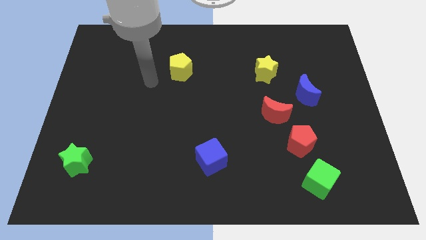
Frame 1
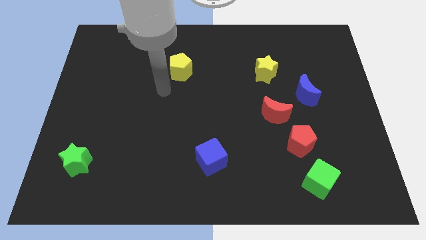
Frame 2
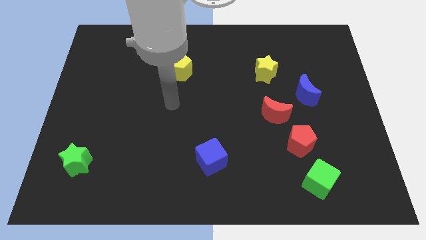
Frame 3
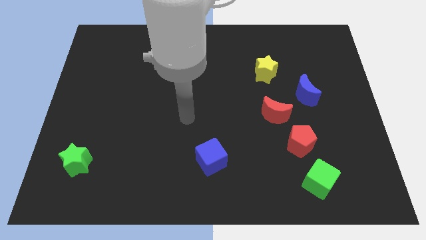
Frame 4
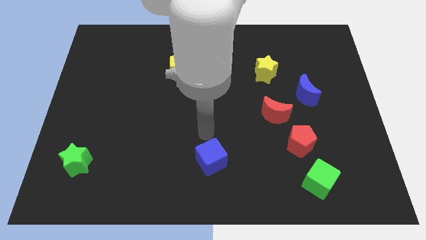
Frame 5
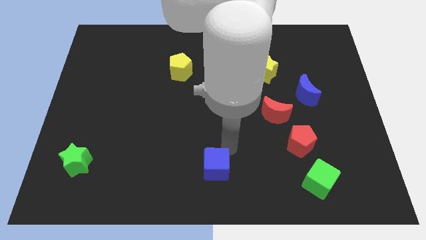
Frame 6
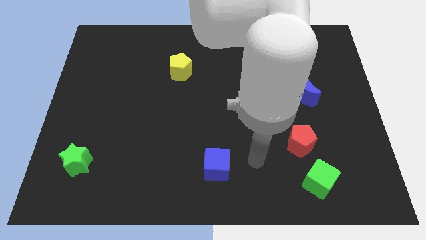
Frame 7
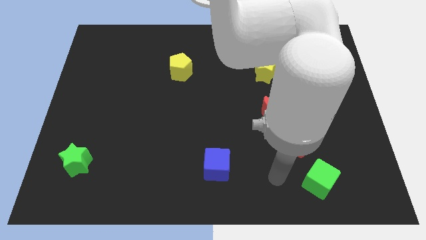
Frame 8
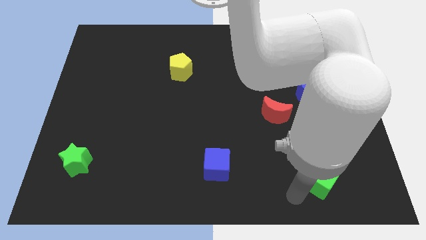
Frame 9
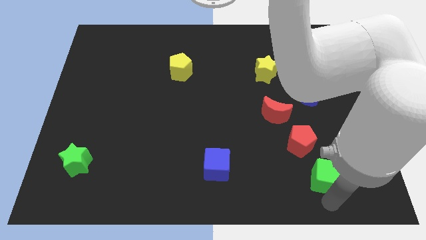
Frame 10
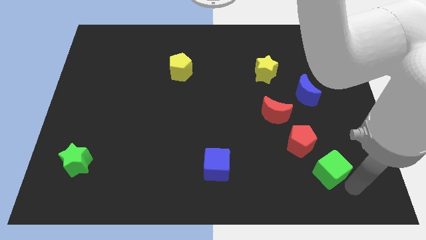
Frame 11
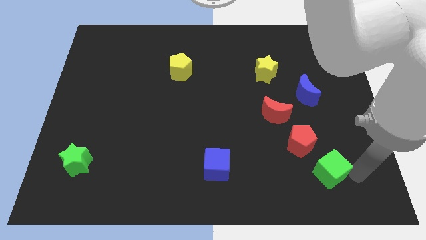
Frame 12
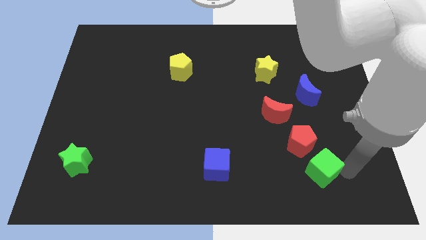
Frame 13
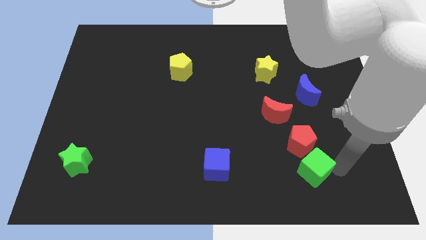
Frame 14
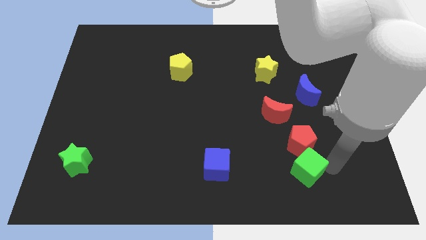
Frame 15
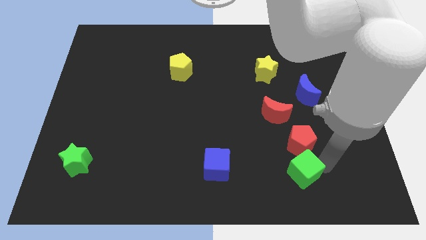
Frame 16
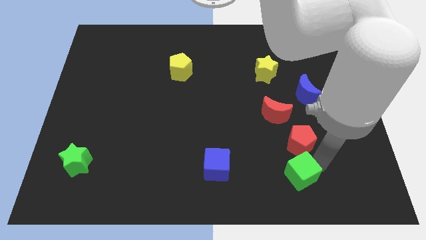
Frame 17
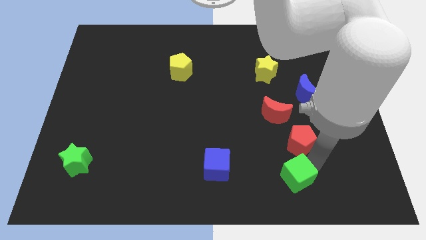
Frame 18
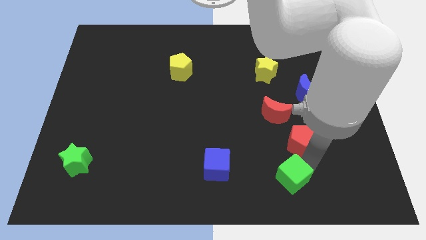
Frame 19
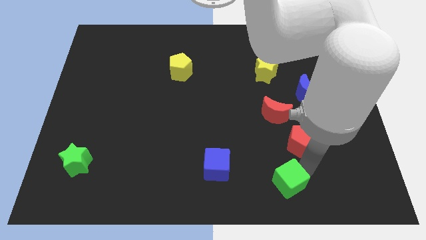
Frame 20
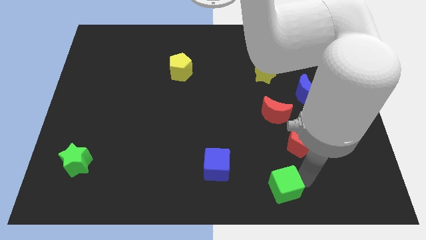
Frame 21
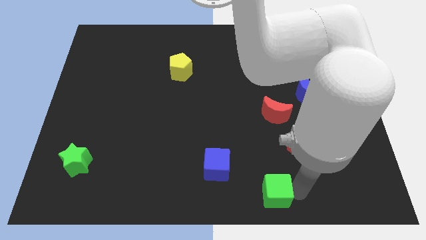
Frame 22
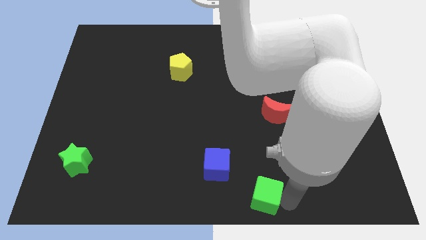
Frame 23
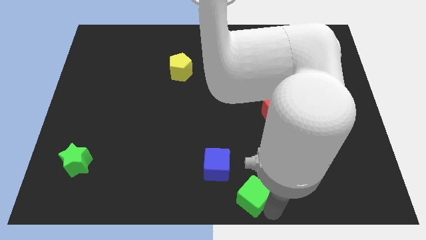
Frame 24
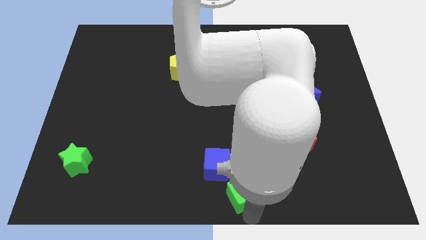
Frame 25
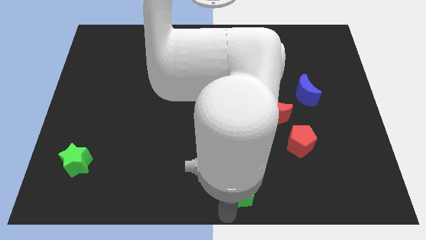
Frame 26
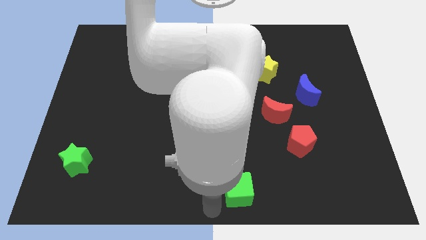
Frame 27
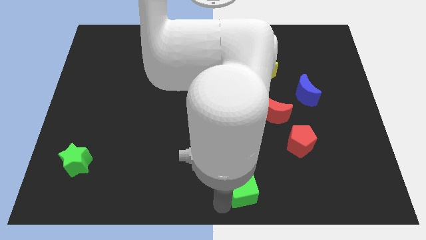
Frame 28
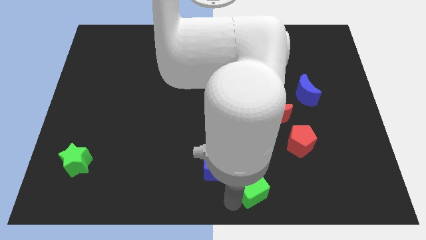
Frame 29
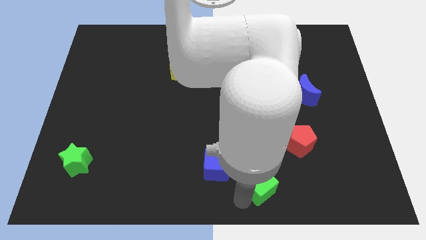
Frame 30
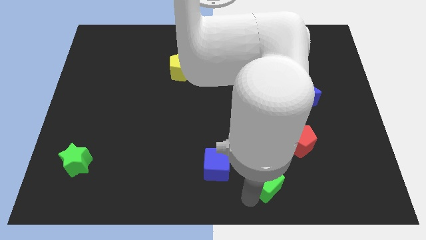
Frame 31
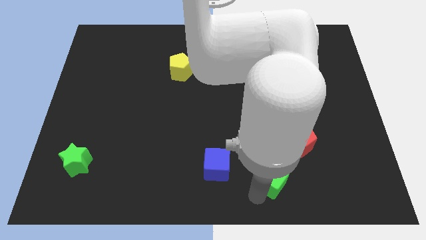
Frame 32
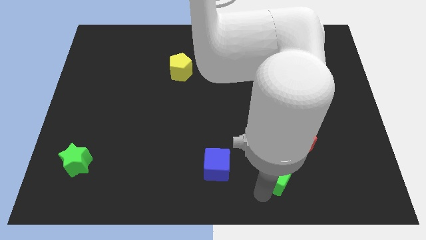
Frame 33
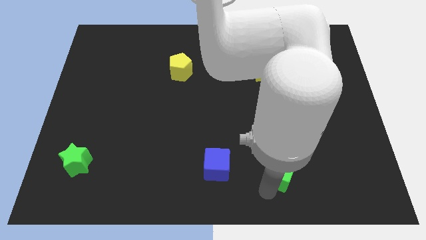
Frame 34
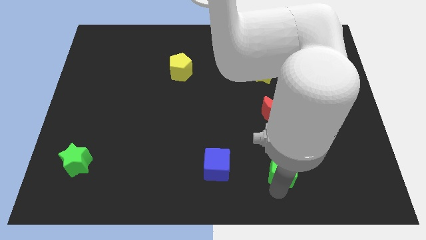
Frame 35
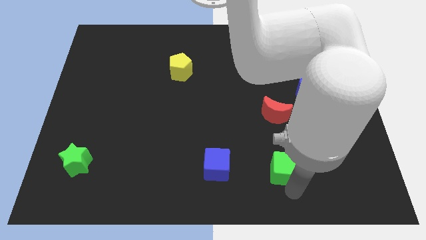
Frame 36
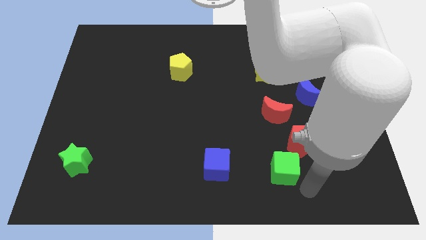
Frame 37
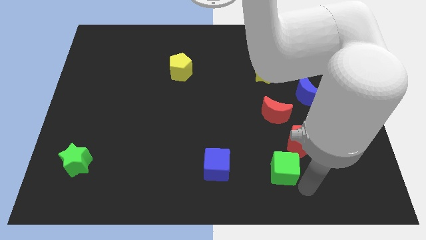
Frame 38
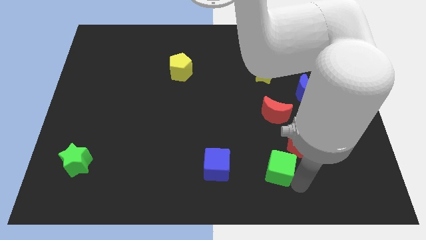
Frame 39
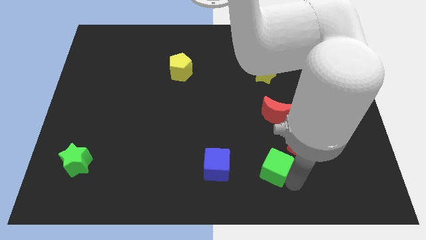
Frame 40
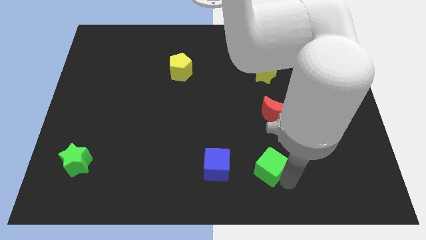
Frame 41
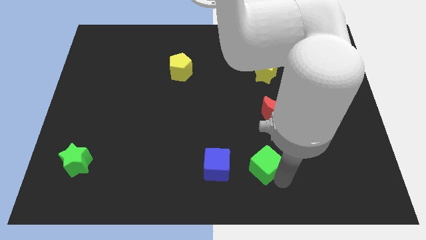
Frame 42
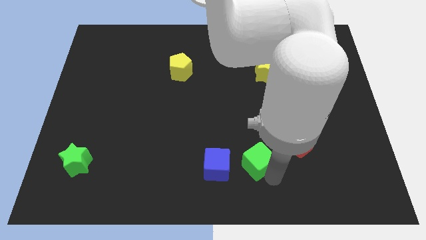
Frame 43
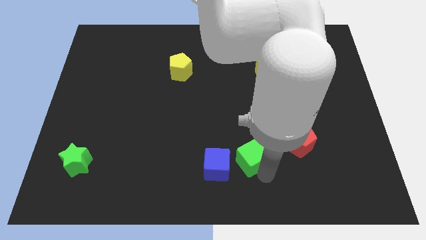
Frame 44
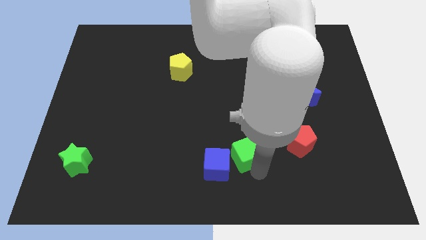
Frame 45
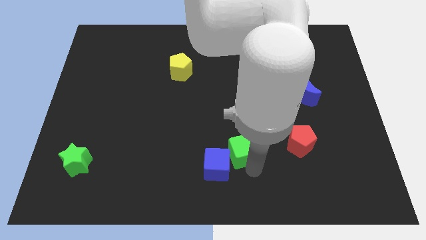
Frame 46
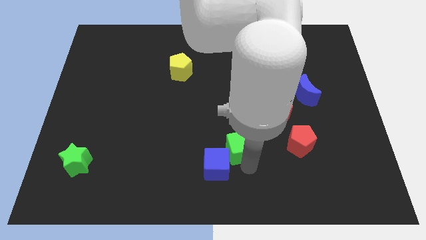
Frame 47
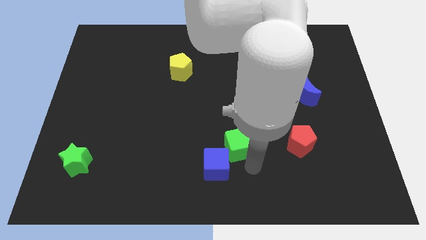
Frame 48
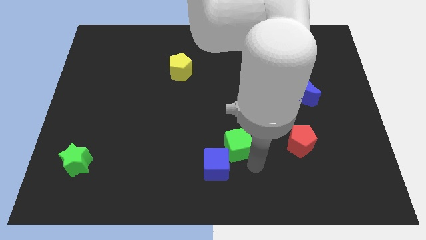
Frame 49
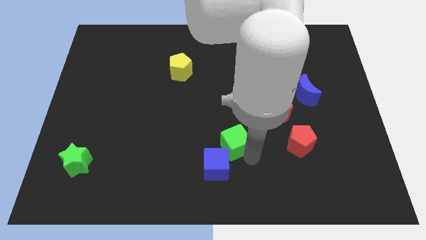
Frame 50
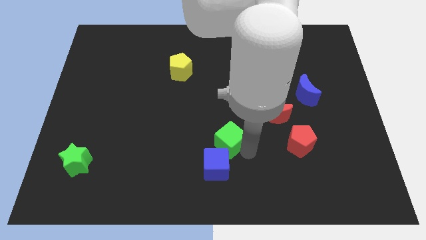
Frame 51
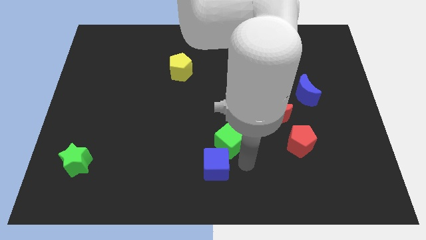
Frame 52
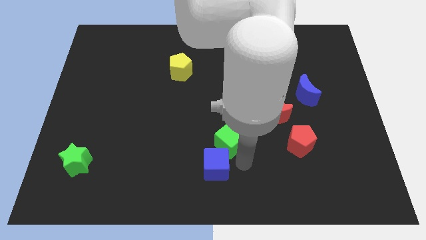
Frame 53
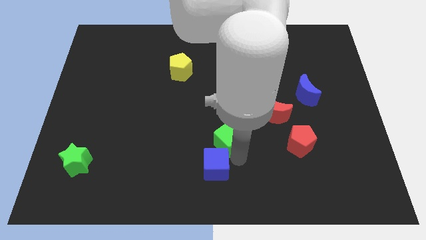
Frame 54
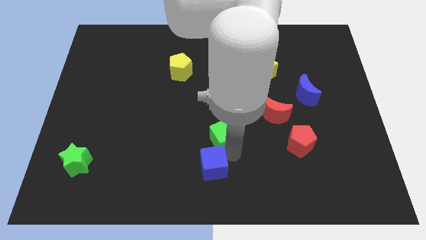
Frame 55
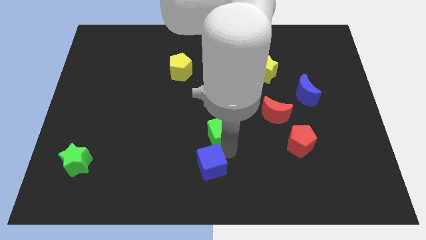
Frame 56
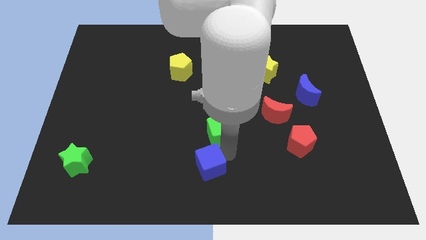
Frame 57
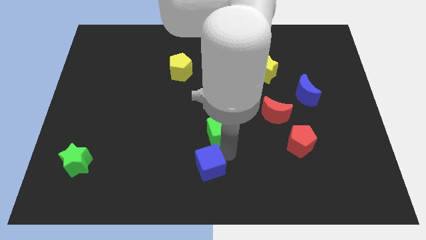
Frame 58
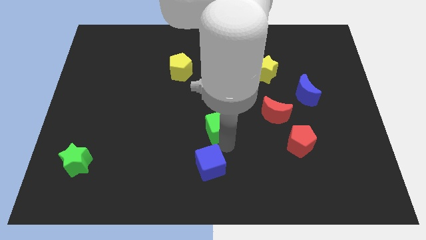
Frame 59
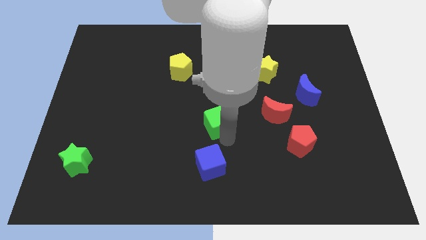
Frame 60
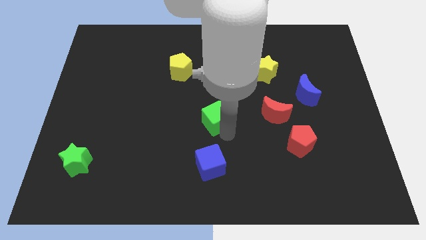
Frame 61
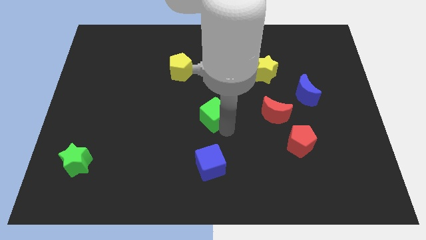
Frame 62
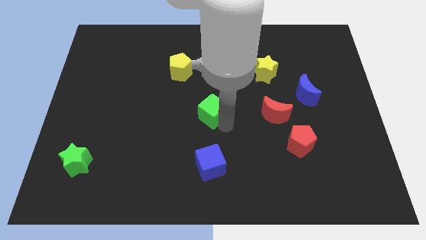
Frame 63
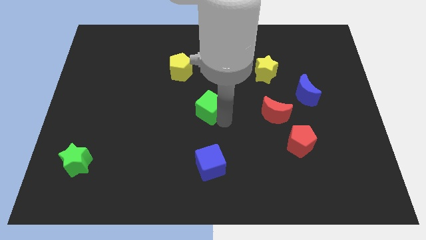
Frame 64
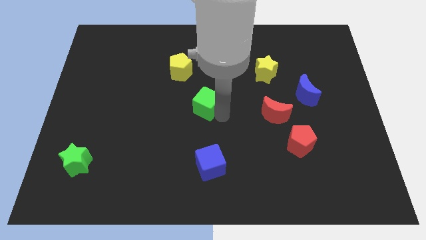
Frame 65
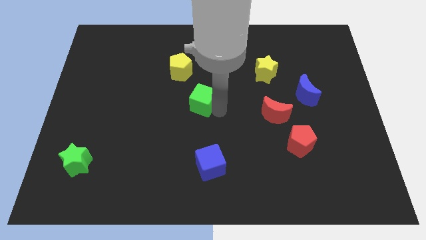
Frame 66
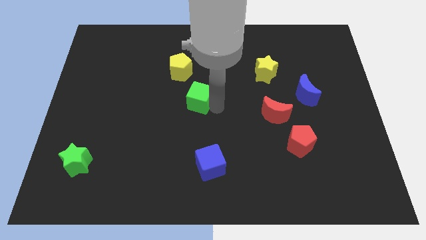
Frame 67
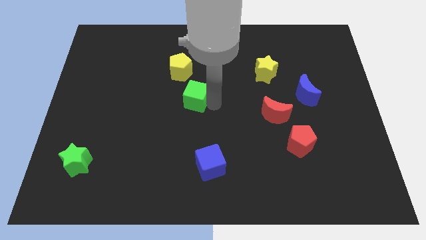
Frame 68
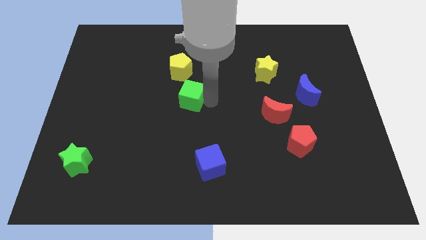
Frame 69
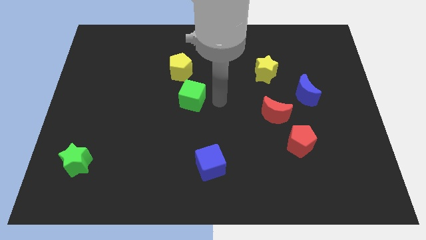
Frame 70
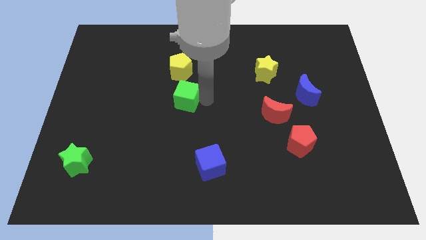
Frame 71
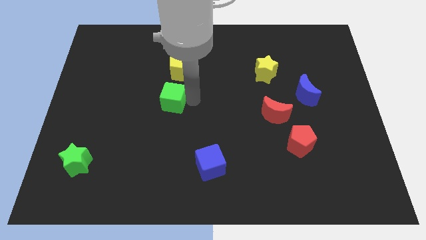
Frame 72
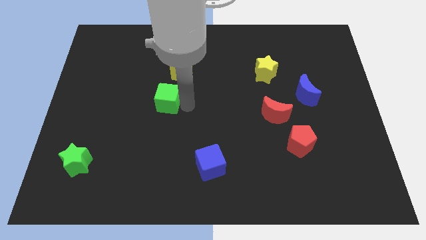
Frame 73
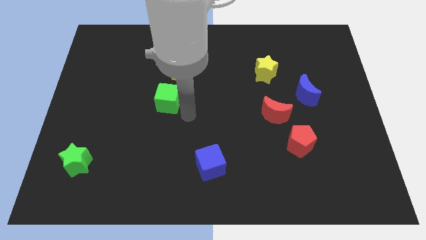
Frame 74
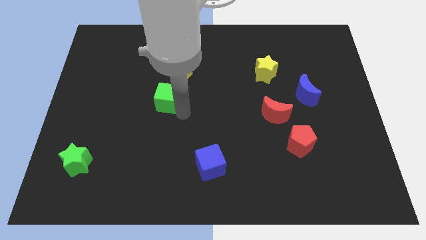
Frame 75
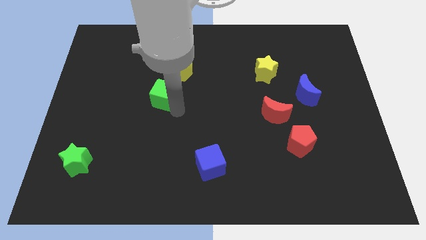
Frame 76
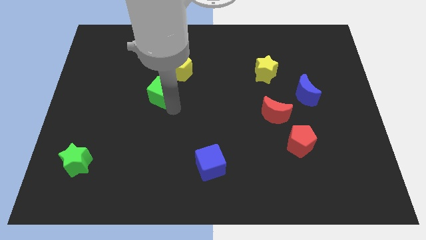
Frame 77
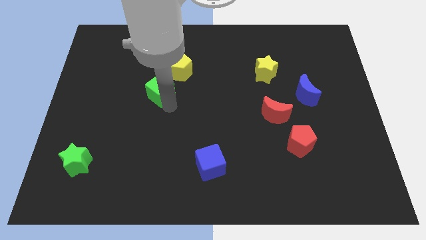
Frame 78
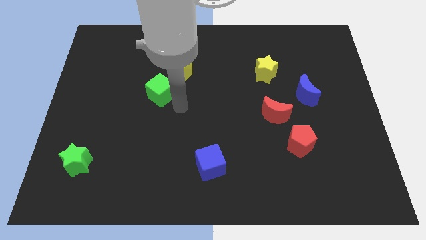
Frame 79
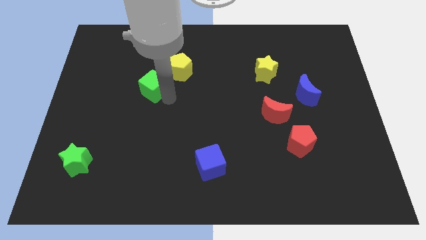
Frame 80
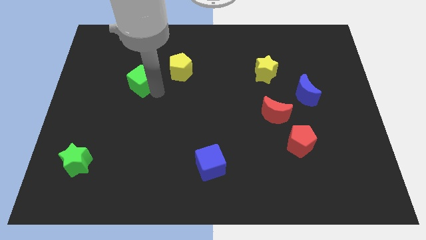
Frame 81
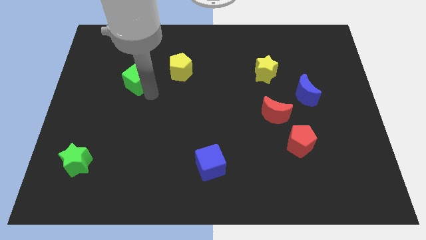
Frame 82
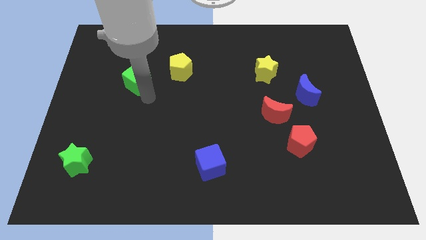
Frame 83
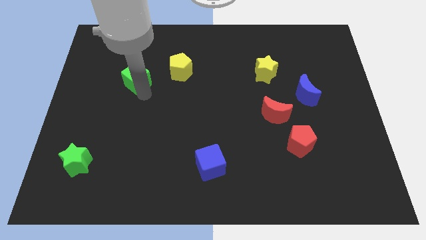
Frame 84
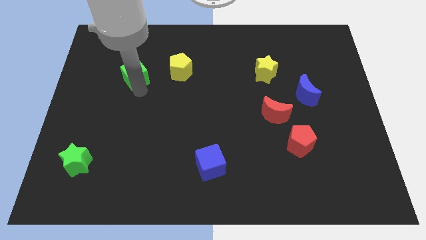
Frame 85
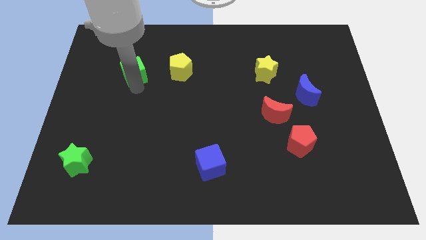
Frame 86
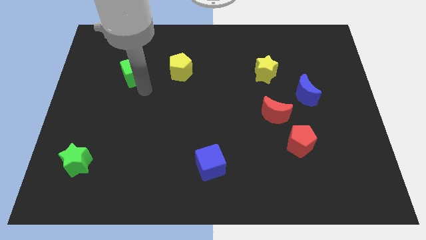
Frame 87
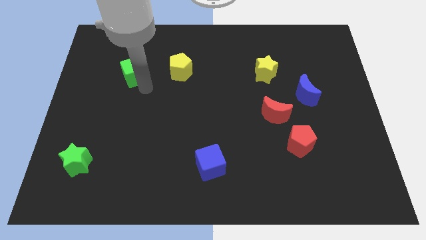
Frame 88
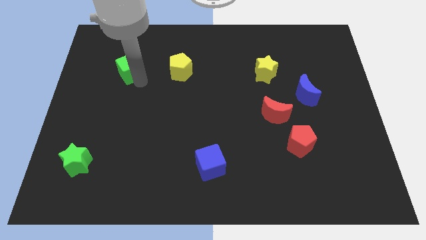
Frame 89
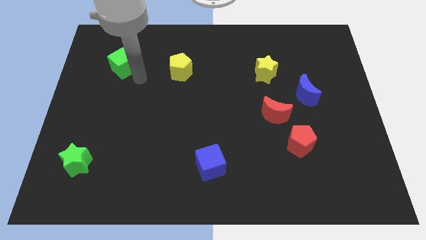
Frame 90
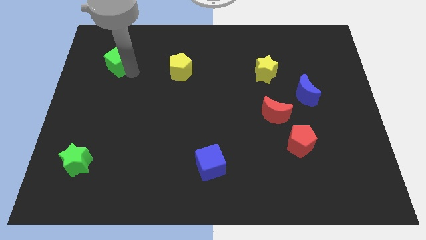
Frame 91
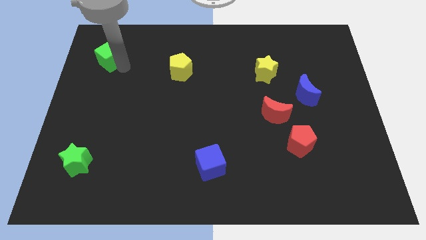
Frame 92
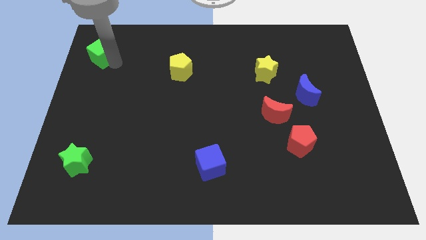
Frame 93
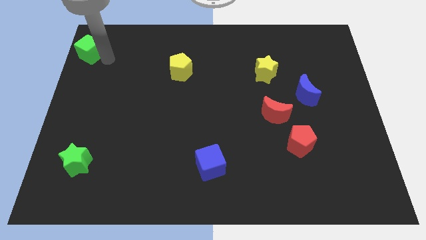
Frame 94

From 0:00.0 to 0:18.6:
push the green cube to the top left corner
